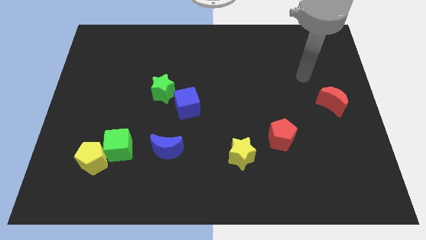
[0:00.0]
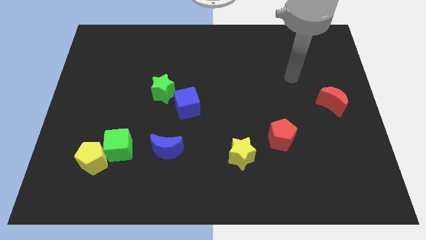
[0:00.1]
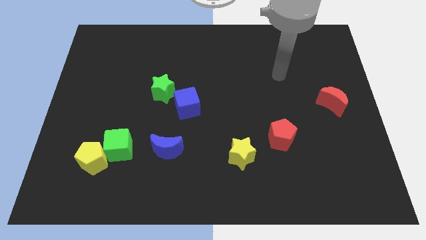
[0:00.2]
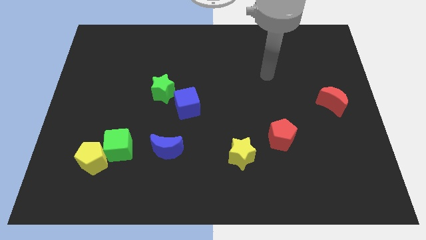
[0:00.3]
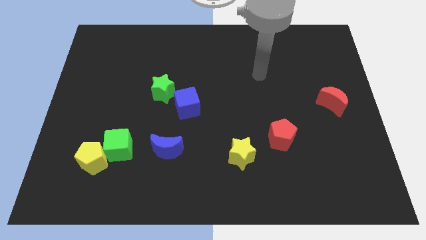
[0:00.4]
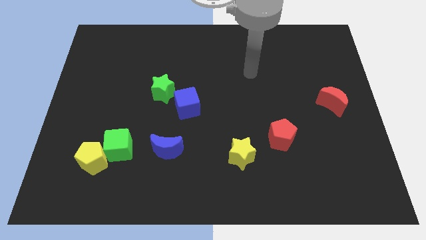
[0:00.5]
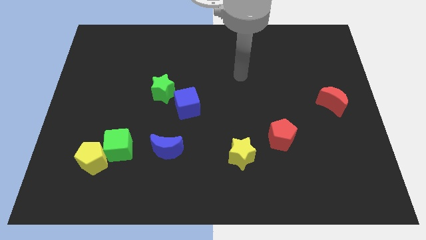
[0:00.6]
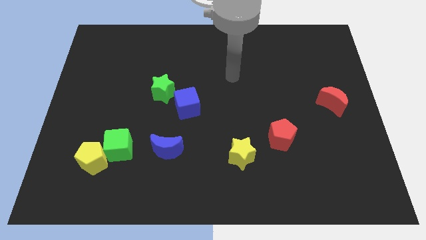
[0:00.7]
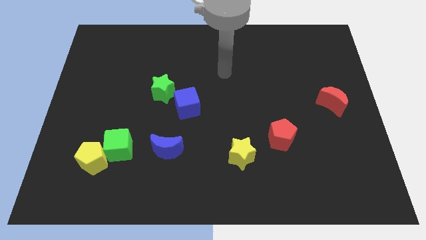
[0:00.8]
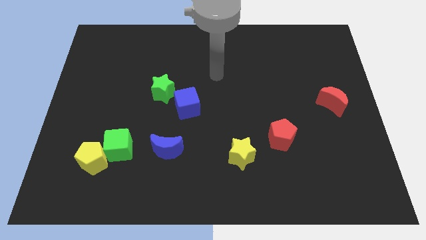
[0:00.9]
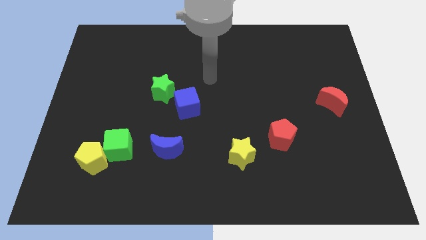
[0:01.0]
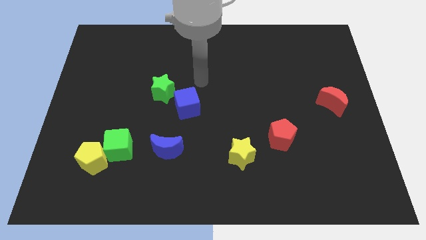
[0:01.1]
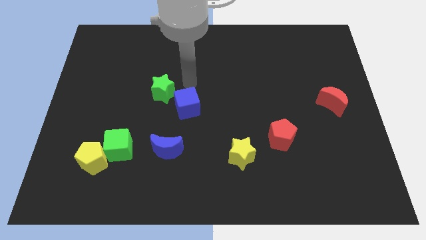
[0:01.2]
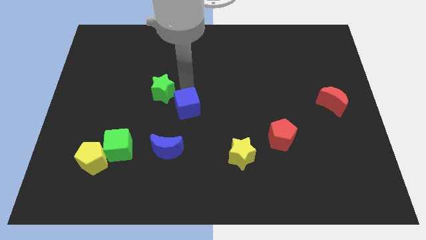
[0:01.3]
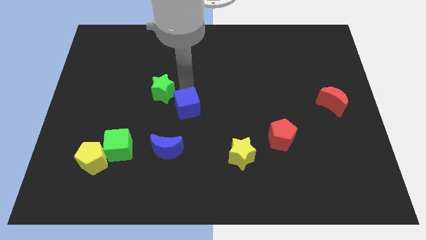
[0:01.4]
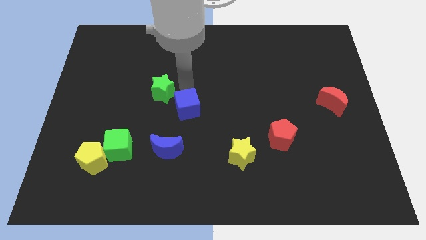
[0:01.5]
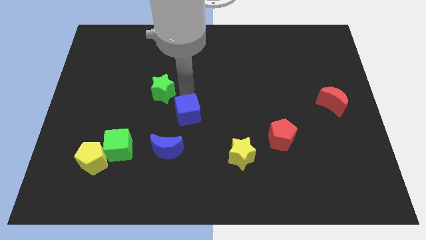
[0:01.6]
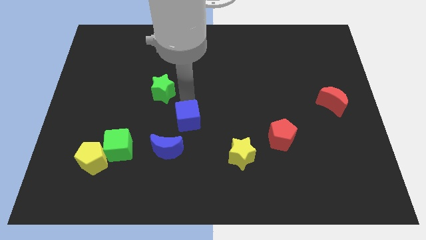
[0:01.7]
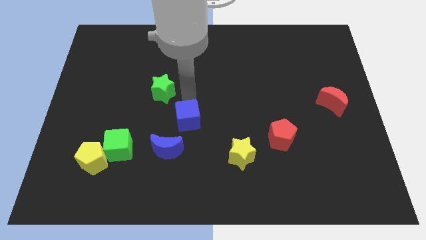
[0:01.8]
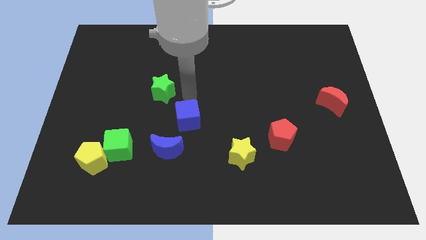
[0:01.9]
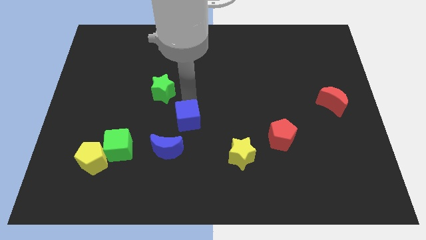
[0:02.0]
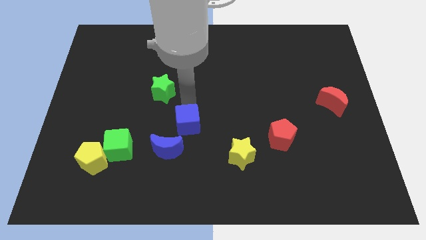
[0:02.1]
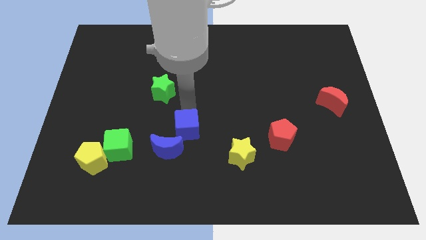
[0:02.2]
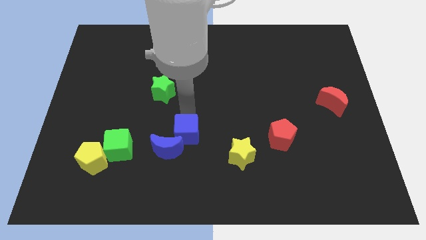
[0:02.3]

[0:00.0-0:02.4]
move the blue cube a little bit down

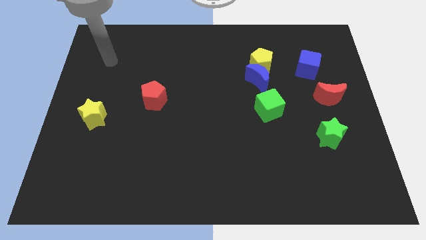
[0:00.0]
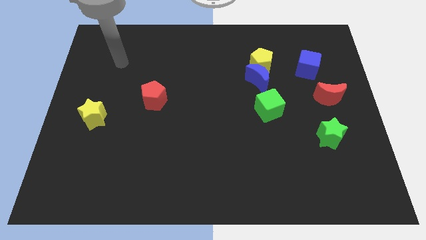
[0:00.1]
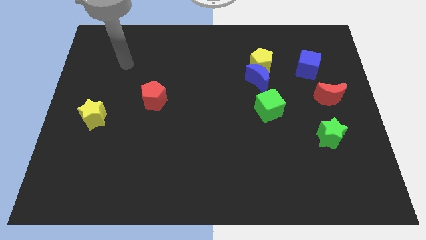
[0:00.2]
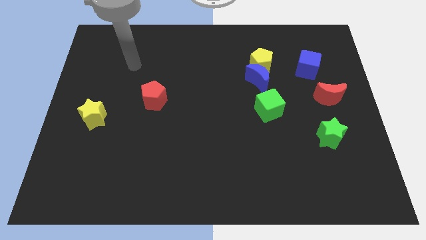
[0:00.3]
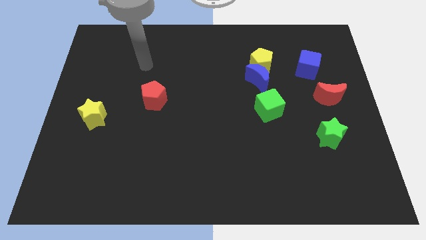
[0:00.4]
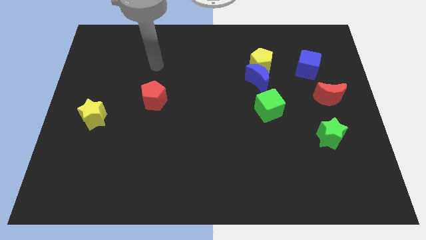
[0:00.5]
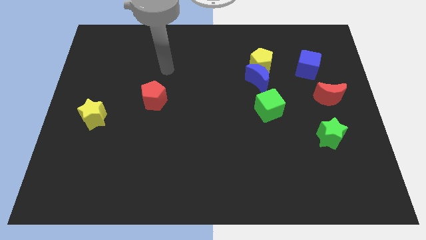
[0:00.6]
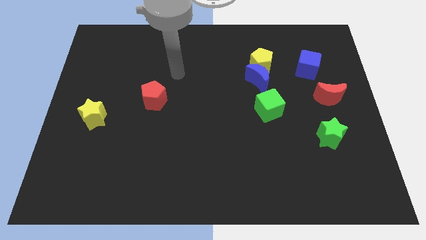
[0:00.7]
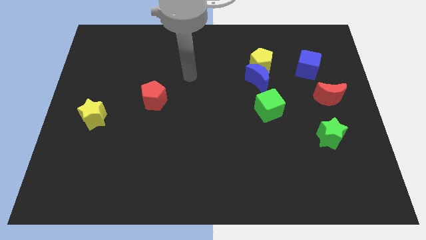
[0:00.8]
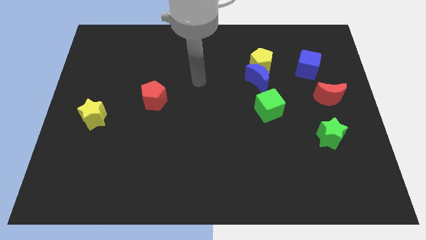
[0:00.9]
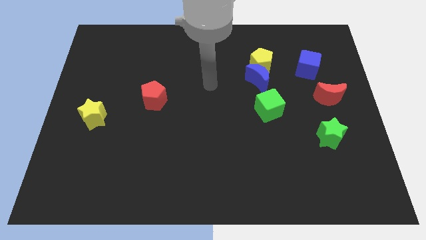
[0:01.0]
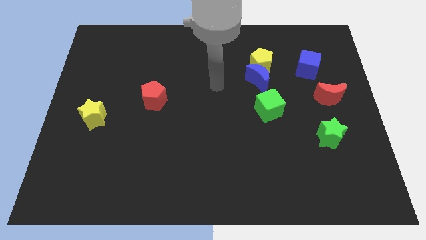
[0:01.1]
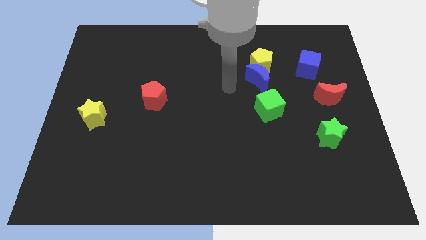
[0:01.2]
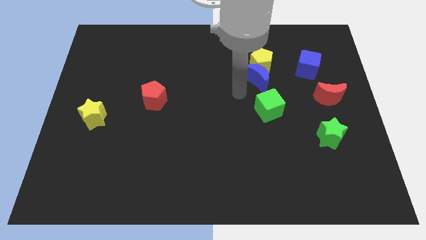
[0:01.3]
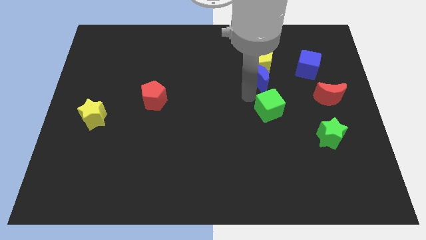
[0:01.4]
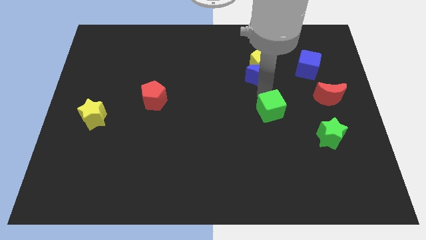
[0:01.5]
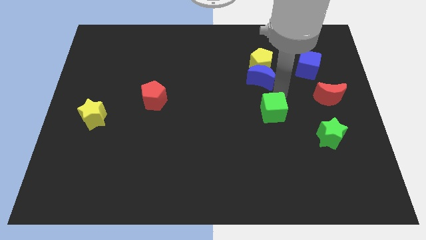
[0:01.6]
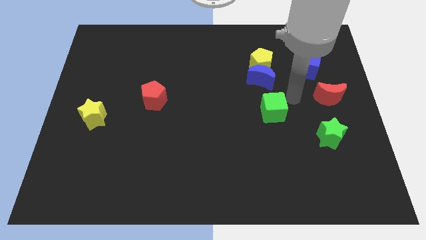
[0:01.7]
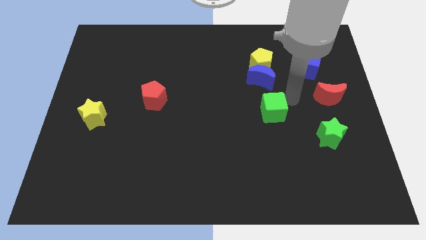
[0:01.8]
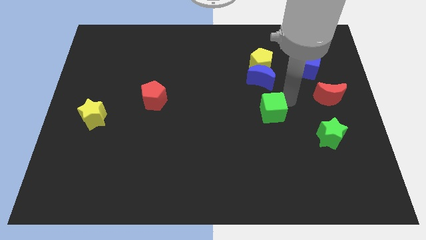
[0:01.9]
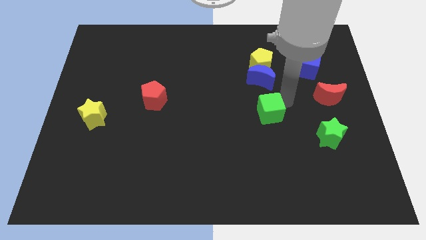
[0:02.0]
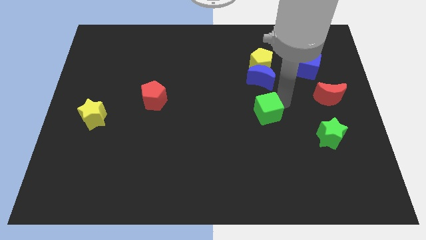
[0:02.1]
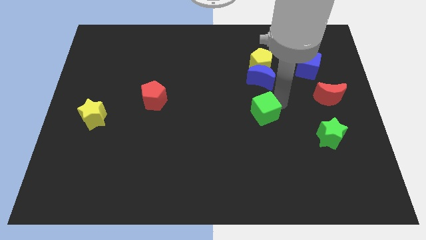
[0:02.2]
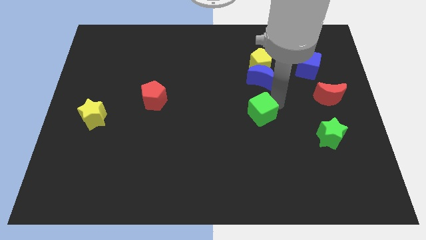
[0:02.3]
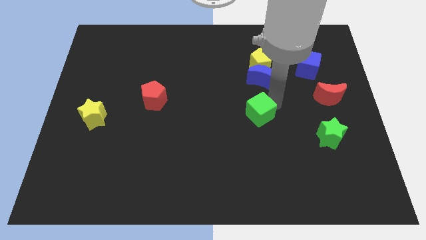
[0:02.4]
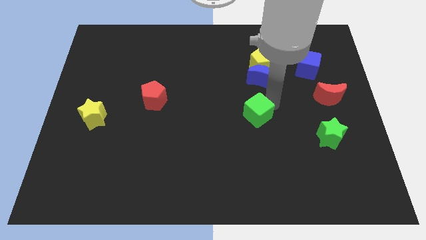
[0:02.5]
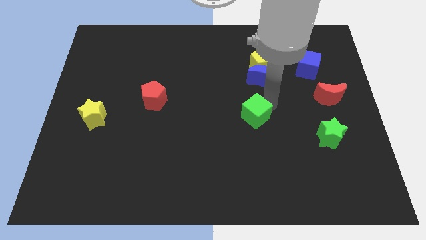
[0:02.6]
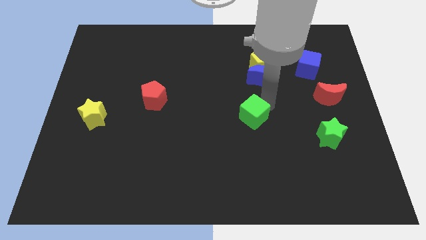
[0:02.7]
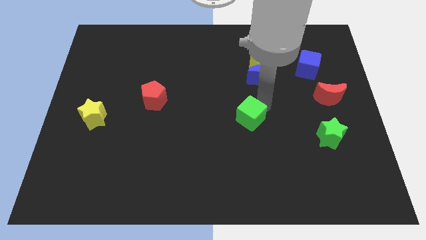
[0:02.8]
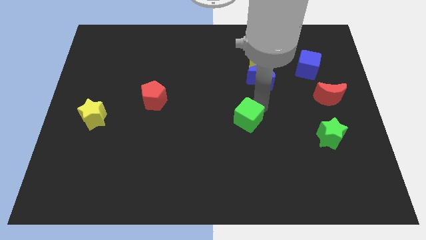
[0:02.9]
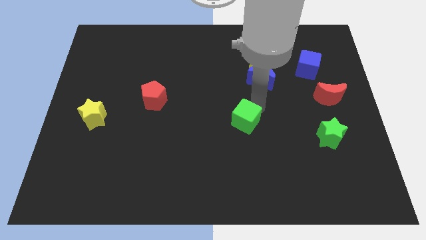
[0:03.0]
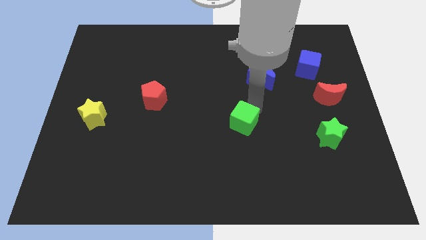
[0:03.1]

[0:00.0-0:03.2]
push the green cube slightly downwards and to the left diagonally

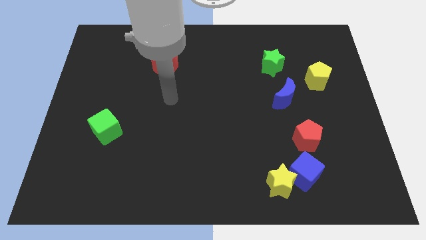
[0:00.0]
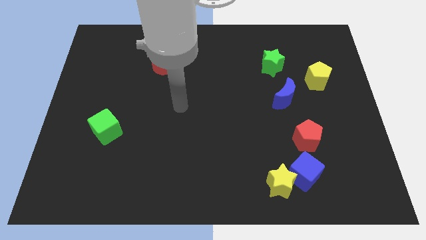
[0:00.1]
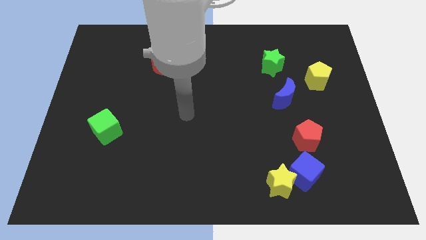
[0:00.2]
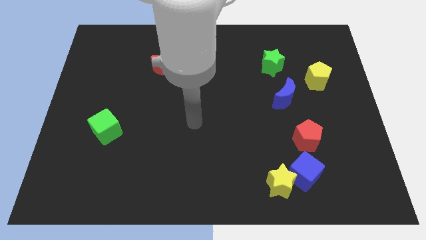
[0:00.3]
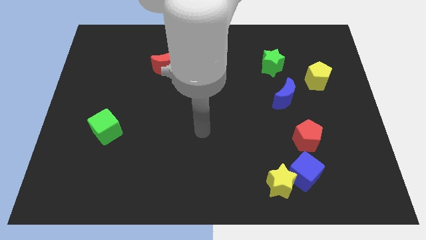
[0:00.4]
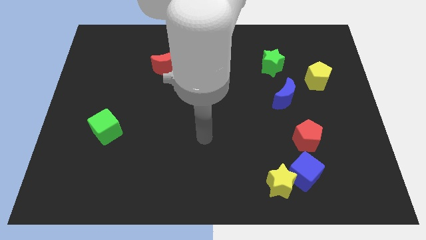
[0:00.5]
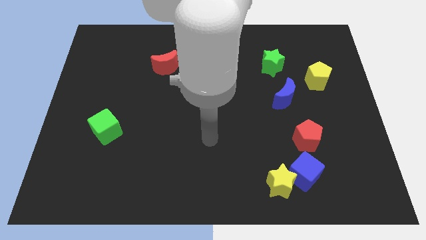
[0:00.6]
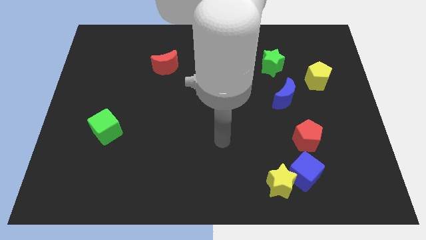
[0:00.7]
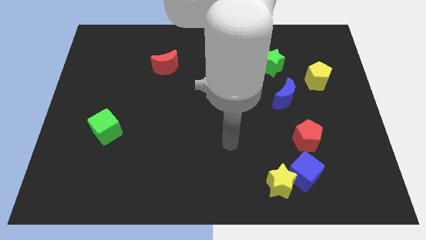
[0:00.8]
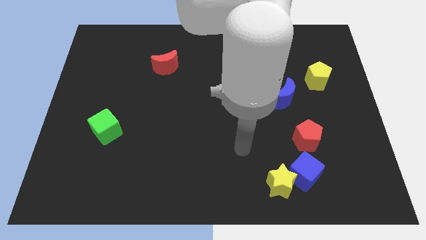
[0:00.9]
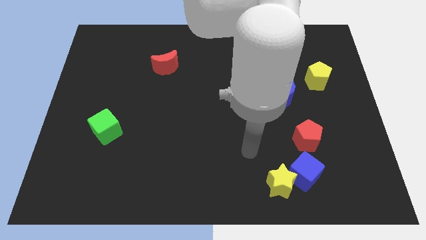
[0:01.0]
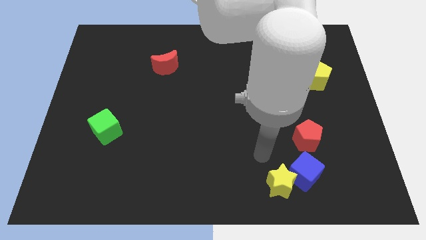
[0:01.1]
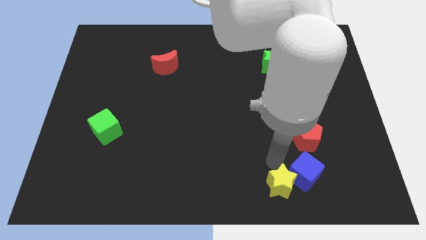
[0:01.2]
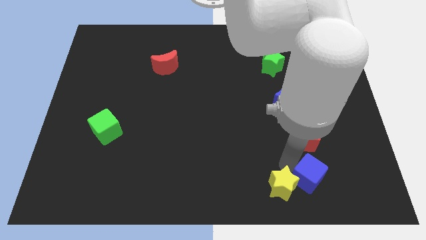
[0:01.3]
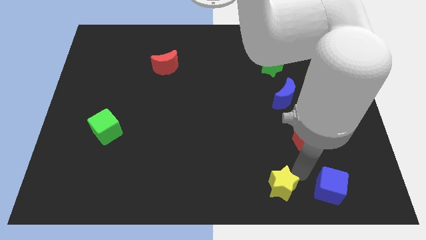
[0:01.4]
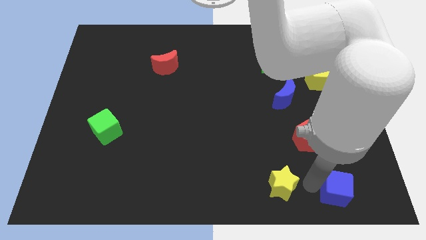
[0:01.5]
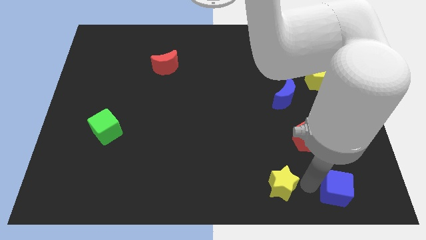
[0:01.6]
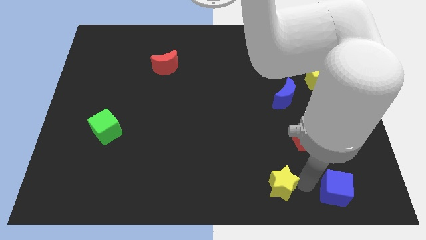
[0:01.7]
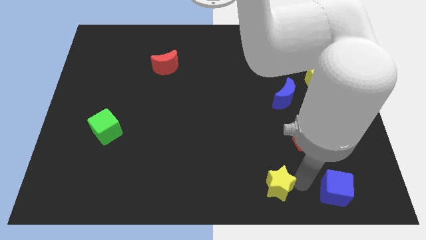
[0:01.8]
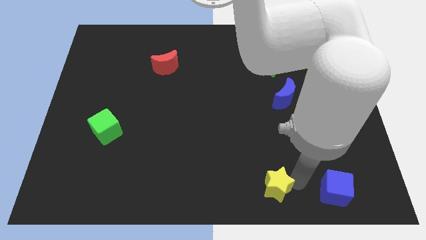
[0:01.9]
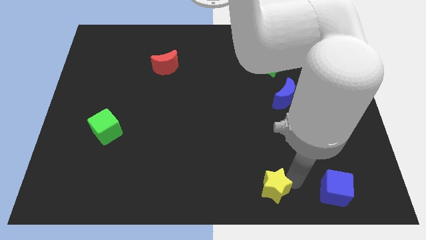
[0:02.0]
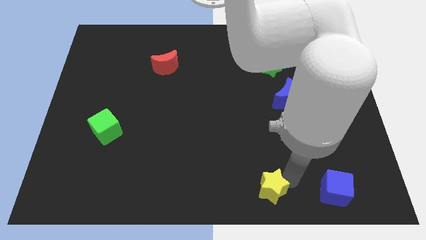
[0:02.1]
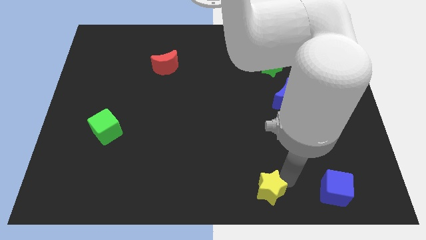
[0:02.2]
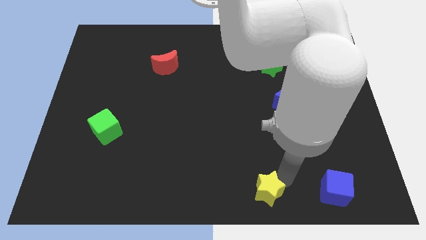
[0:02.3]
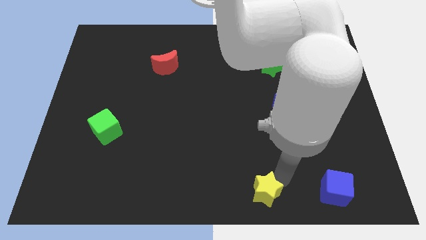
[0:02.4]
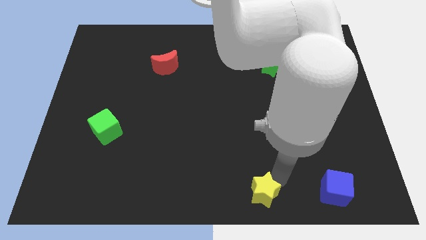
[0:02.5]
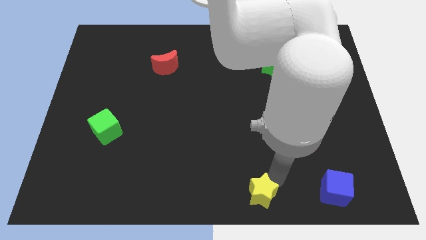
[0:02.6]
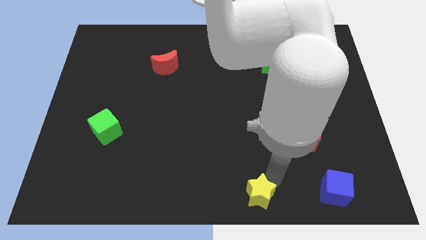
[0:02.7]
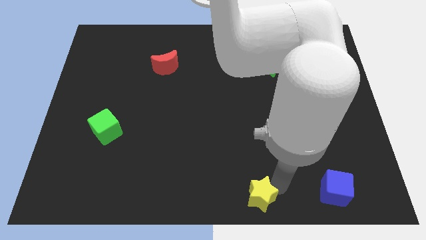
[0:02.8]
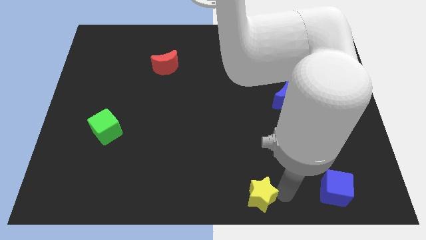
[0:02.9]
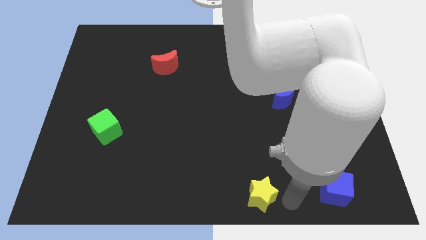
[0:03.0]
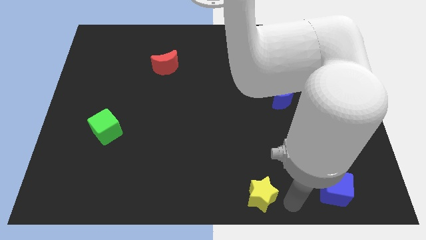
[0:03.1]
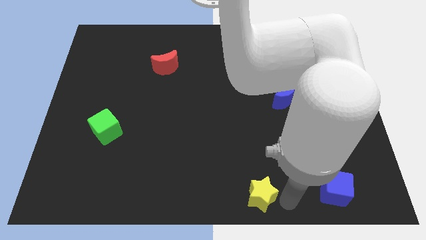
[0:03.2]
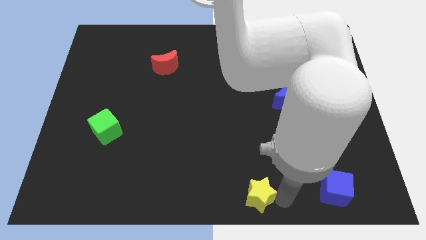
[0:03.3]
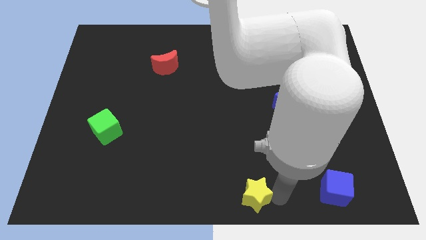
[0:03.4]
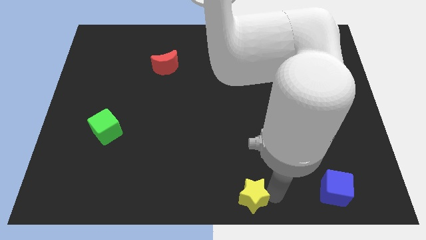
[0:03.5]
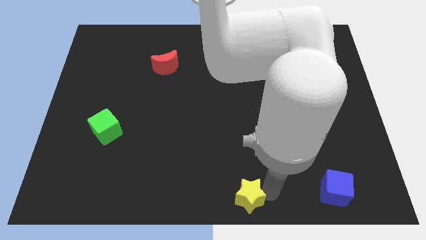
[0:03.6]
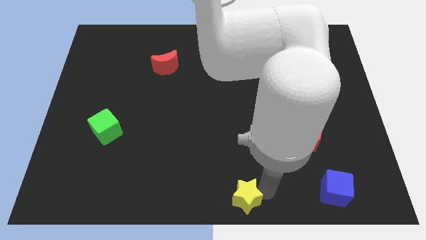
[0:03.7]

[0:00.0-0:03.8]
move the yellow star a little to the left
